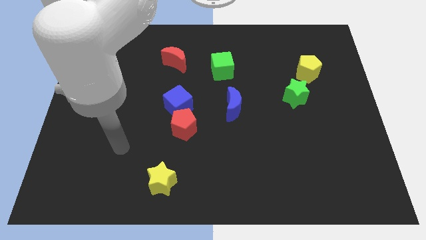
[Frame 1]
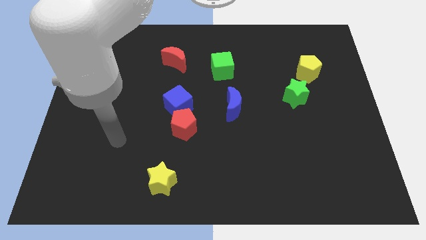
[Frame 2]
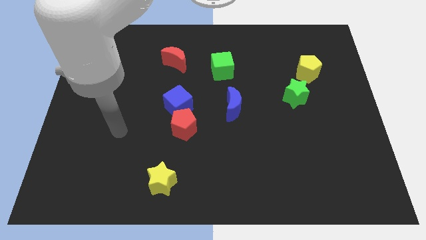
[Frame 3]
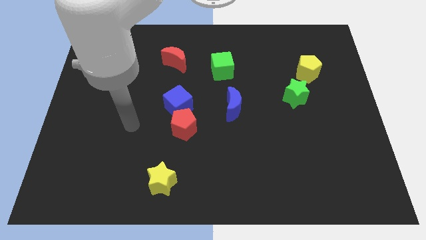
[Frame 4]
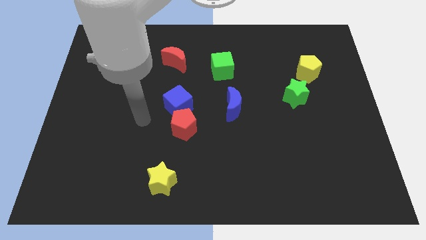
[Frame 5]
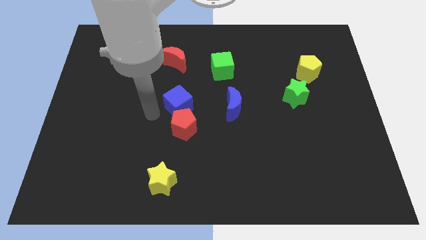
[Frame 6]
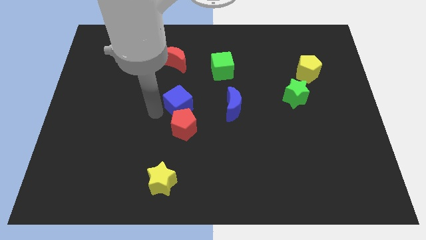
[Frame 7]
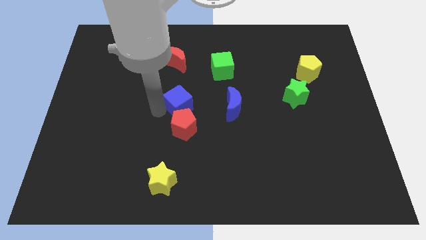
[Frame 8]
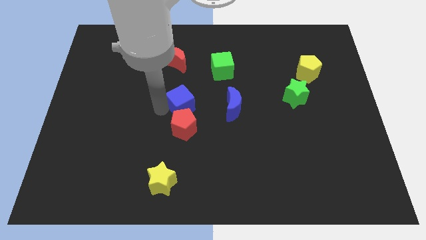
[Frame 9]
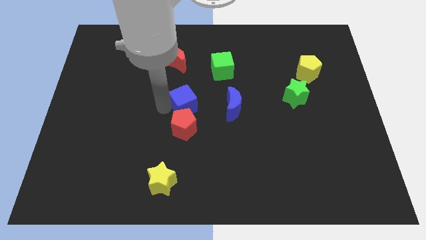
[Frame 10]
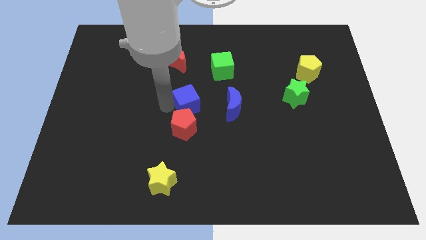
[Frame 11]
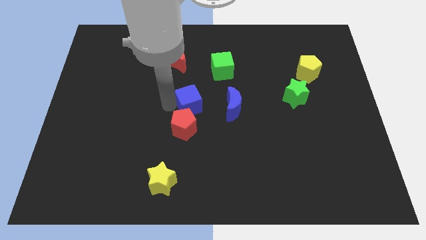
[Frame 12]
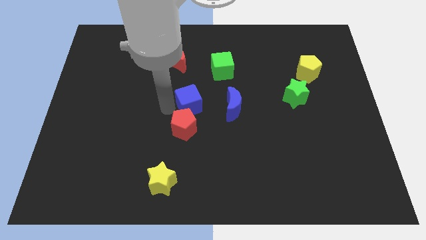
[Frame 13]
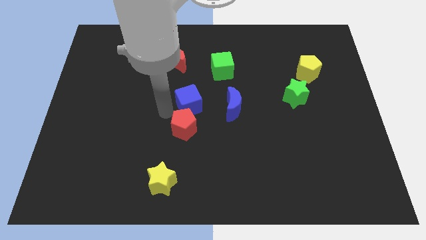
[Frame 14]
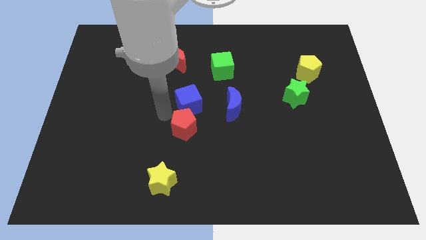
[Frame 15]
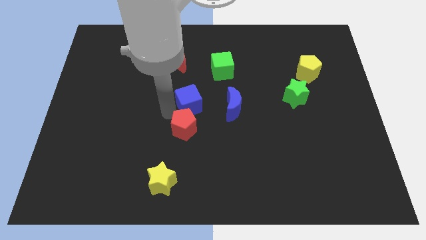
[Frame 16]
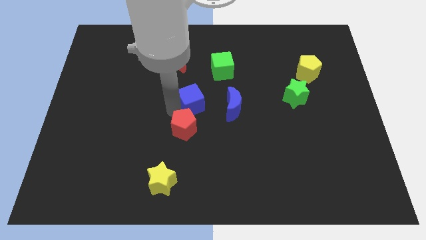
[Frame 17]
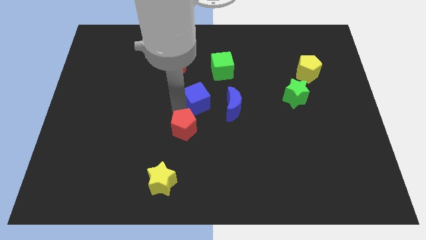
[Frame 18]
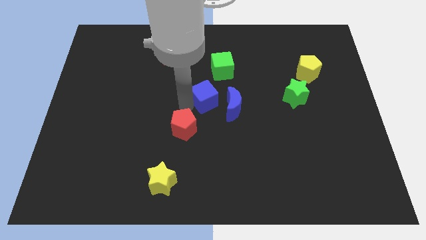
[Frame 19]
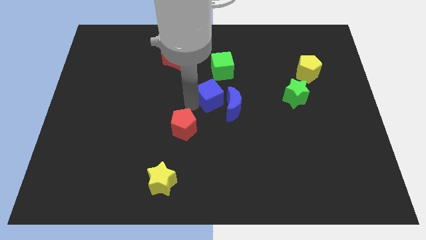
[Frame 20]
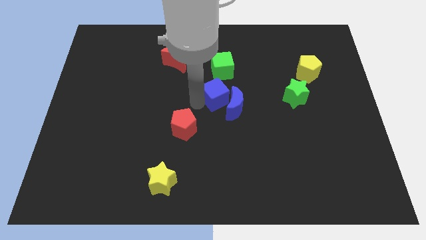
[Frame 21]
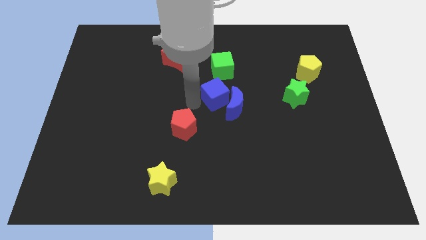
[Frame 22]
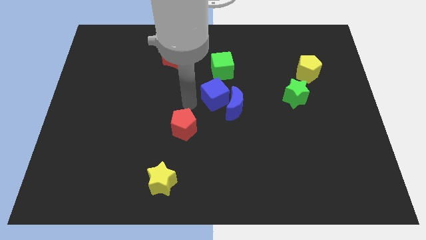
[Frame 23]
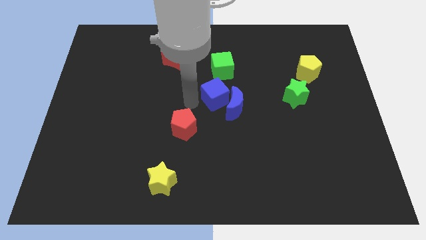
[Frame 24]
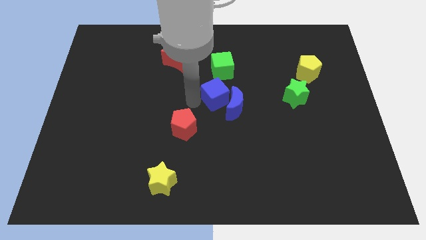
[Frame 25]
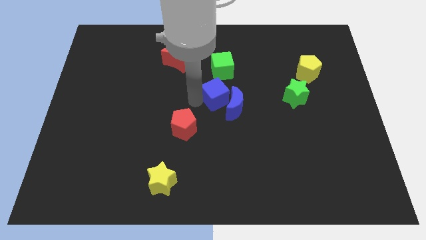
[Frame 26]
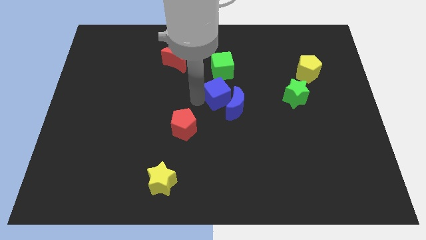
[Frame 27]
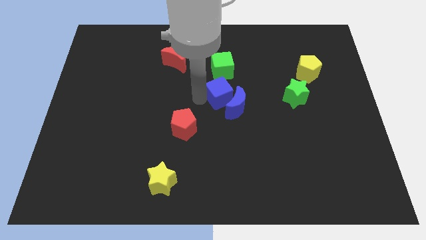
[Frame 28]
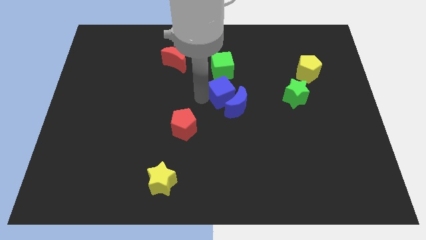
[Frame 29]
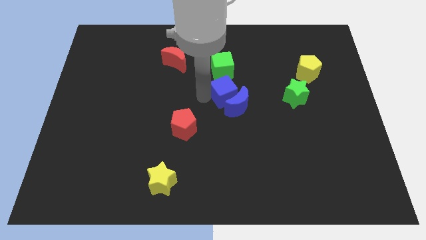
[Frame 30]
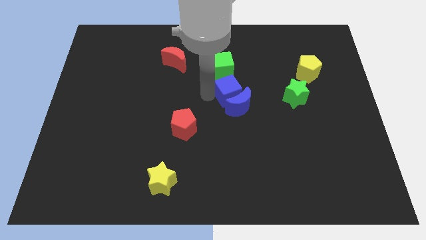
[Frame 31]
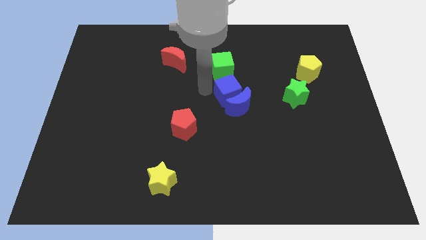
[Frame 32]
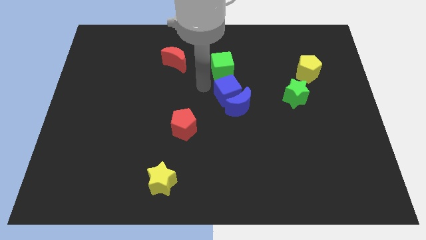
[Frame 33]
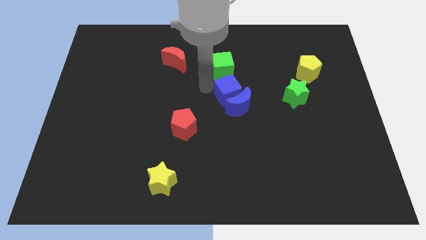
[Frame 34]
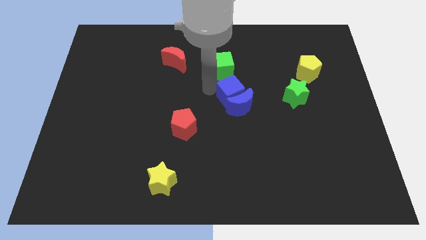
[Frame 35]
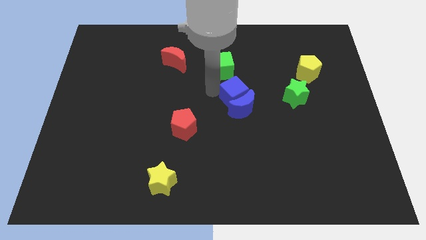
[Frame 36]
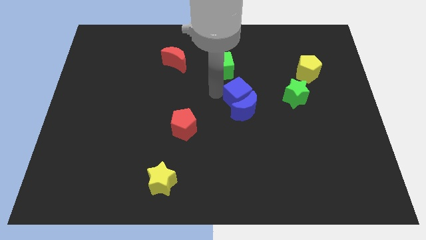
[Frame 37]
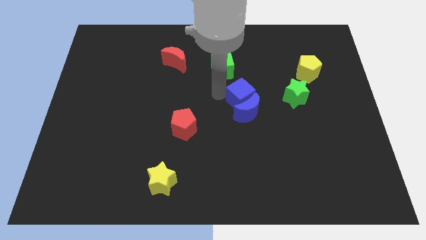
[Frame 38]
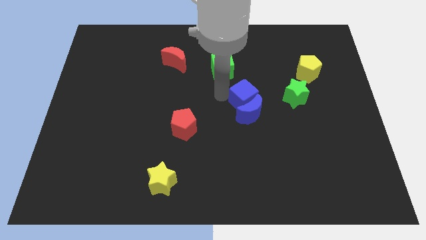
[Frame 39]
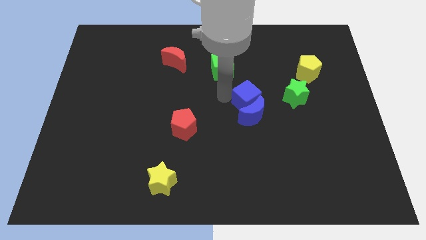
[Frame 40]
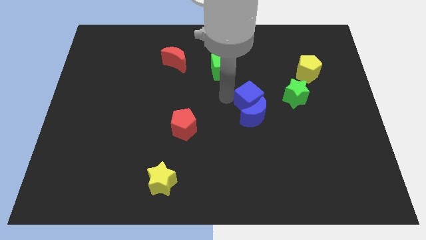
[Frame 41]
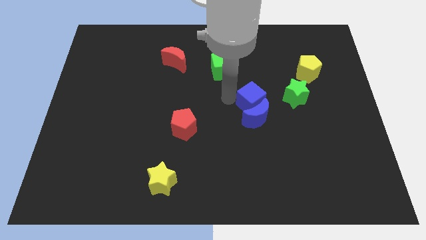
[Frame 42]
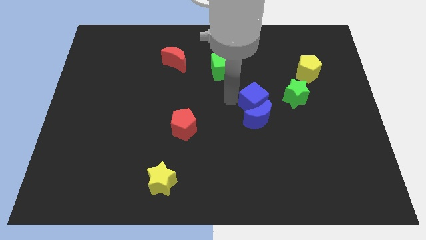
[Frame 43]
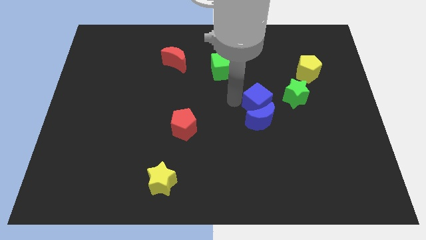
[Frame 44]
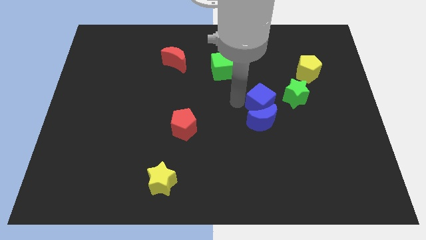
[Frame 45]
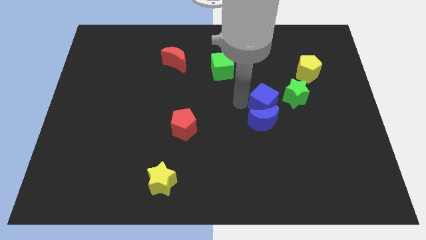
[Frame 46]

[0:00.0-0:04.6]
push the blue cube right

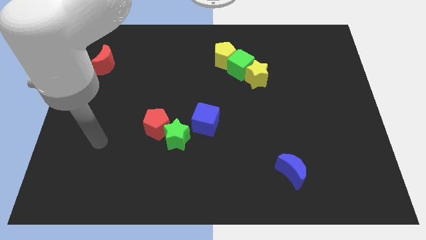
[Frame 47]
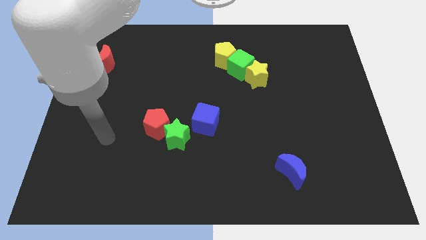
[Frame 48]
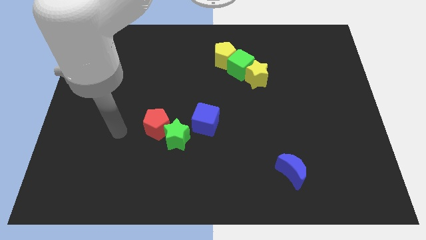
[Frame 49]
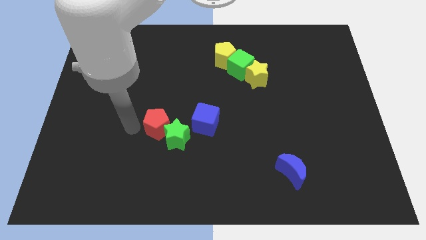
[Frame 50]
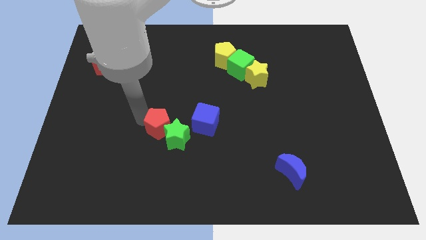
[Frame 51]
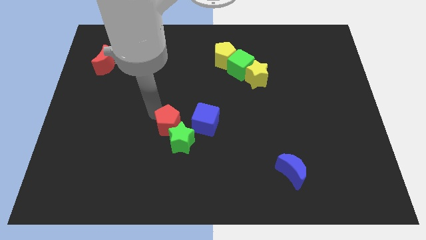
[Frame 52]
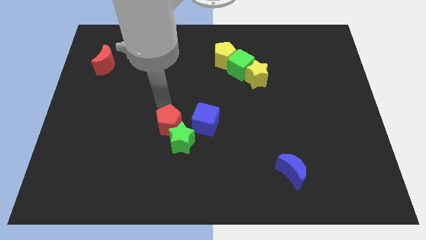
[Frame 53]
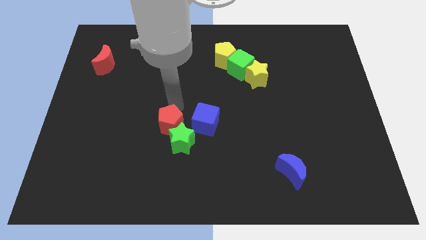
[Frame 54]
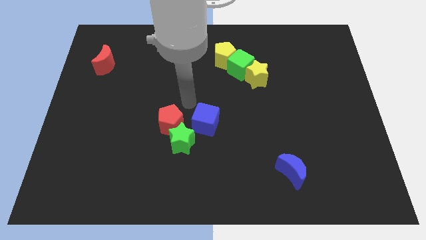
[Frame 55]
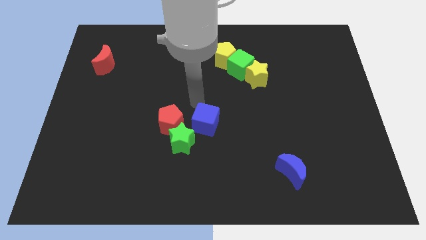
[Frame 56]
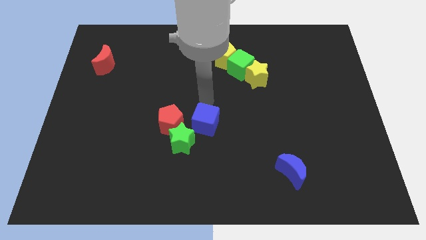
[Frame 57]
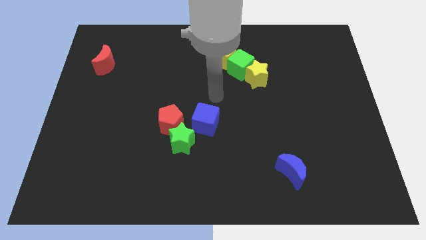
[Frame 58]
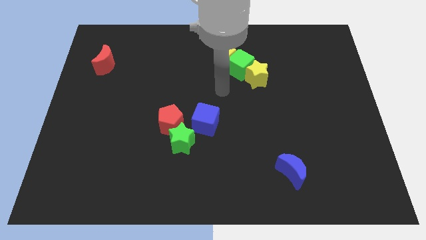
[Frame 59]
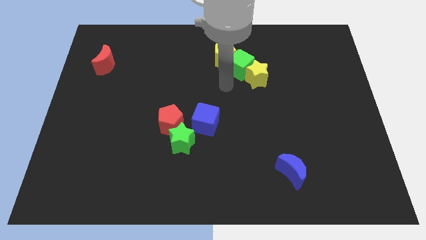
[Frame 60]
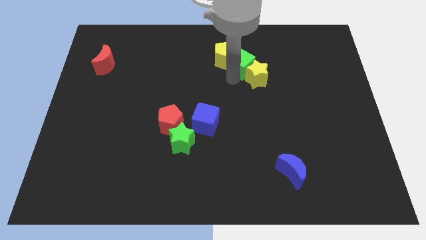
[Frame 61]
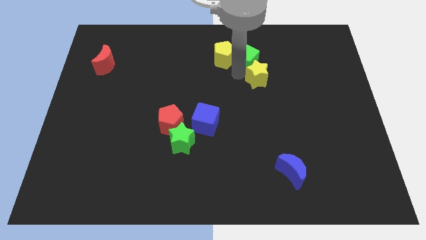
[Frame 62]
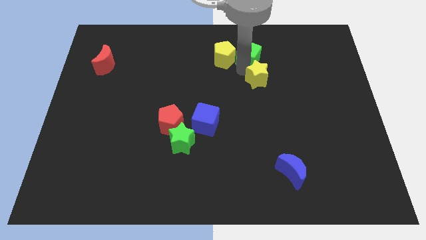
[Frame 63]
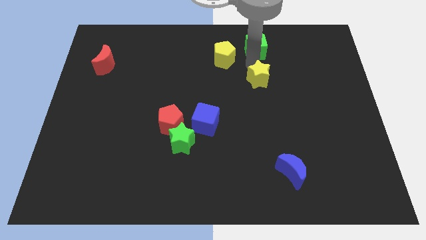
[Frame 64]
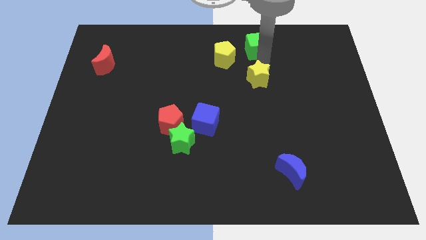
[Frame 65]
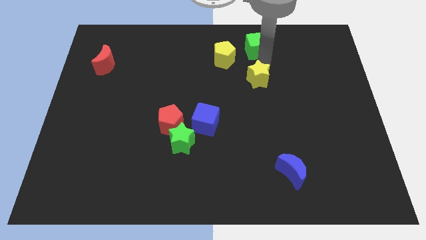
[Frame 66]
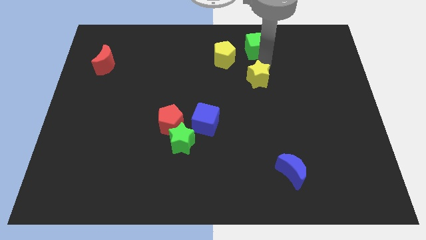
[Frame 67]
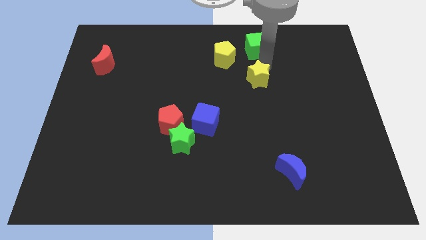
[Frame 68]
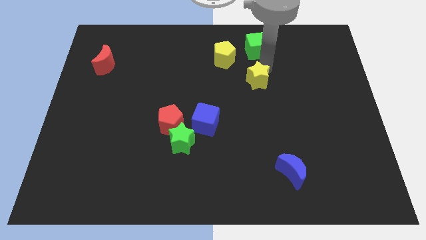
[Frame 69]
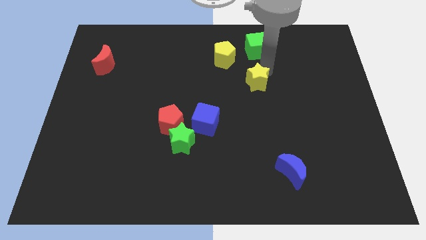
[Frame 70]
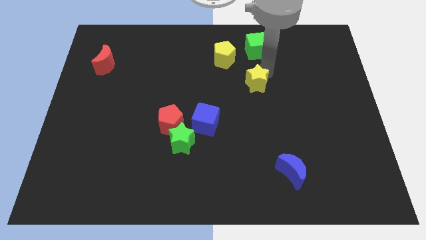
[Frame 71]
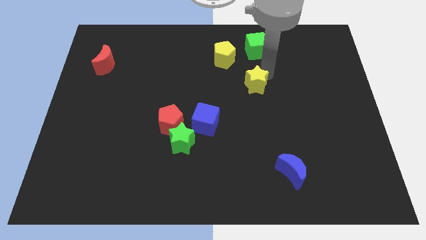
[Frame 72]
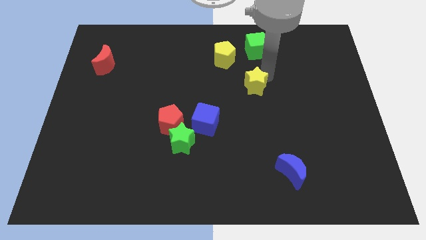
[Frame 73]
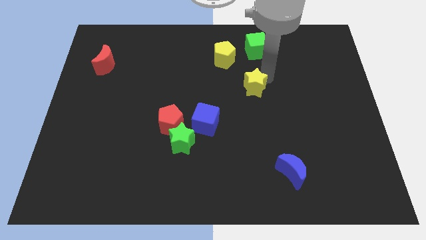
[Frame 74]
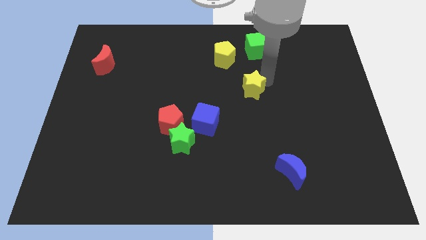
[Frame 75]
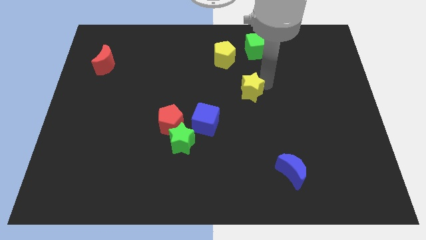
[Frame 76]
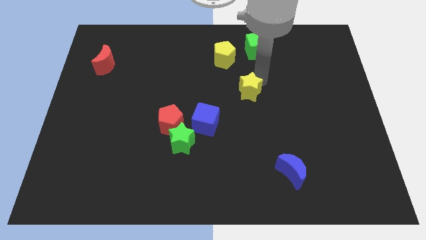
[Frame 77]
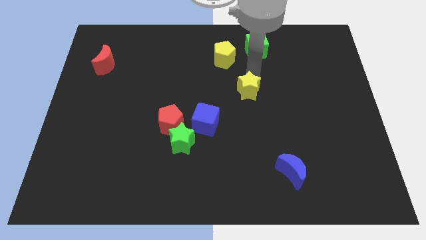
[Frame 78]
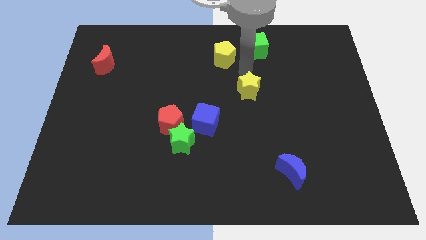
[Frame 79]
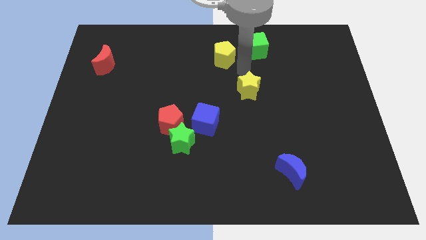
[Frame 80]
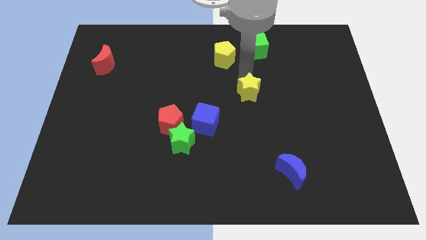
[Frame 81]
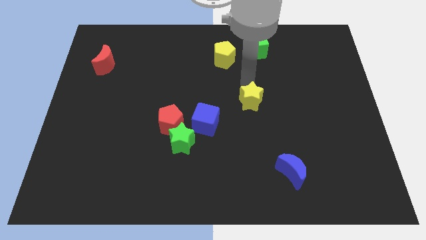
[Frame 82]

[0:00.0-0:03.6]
move the yellow star a little down
